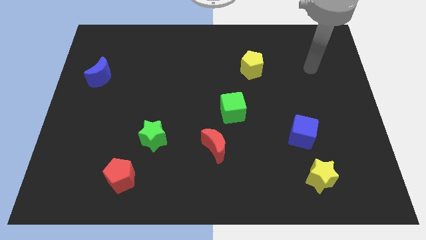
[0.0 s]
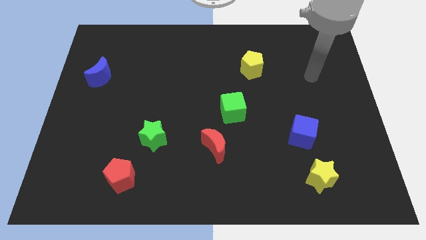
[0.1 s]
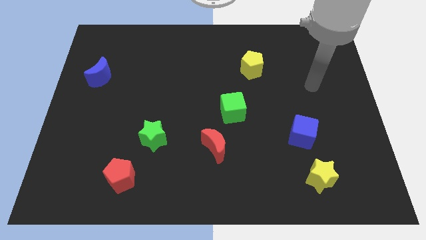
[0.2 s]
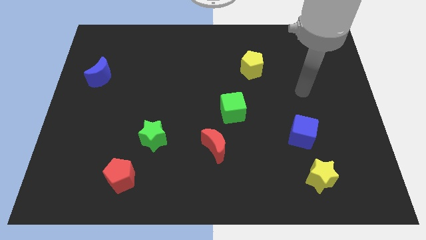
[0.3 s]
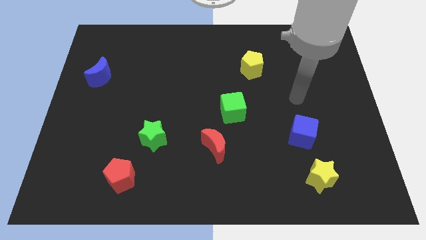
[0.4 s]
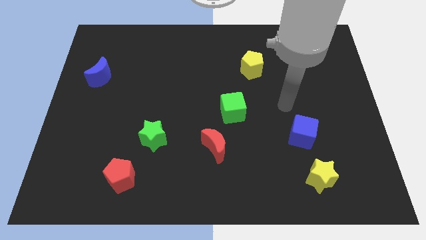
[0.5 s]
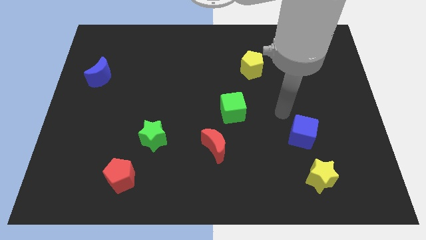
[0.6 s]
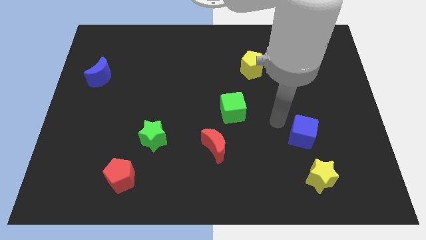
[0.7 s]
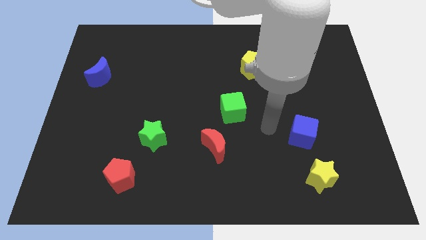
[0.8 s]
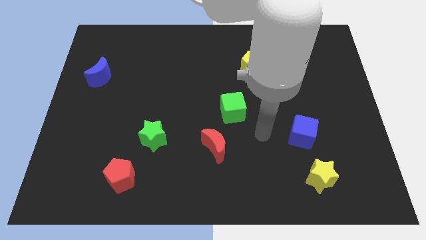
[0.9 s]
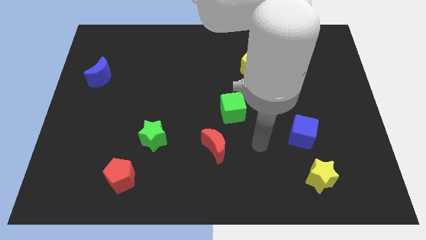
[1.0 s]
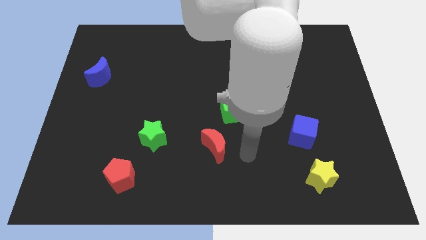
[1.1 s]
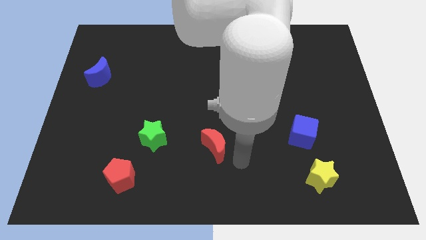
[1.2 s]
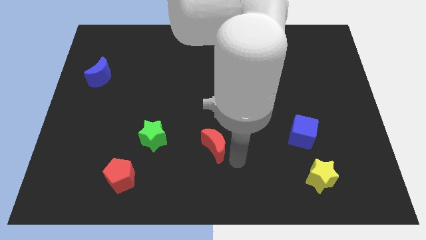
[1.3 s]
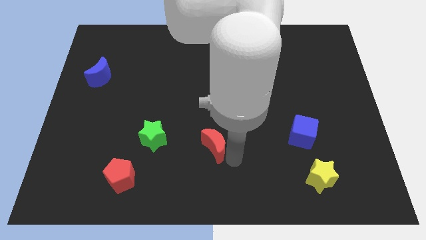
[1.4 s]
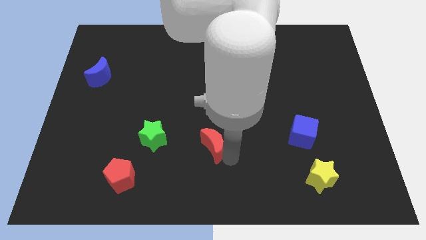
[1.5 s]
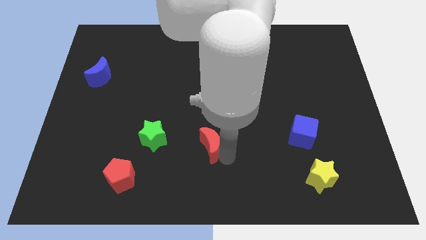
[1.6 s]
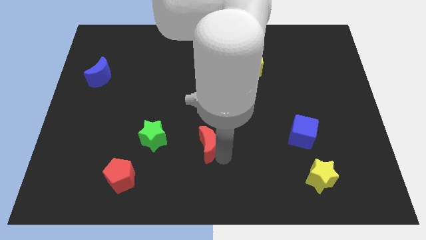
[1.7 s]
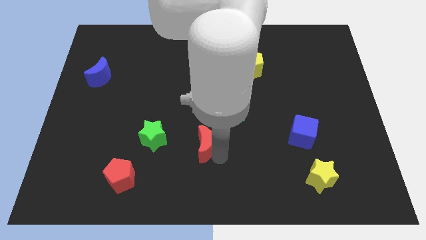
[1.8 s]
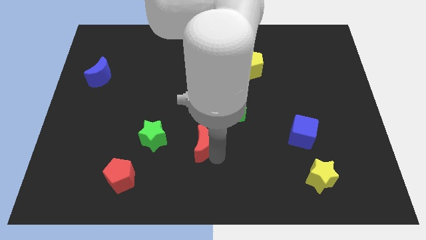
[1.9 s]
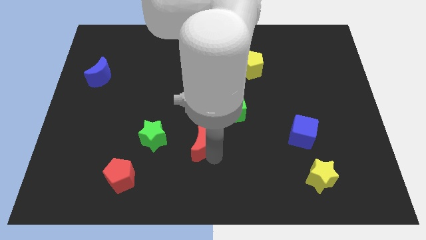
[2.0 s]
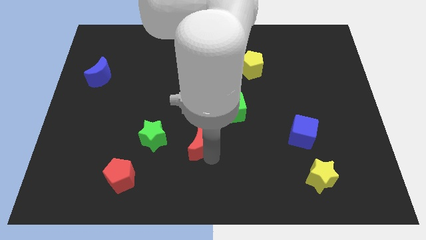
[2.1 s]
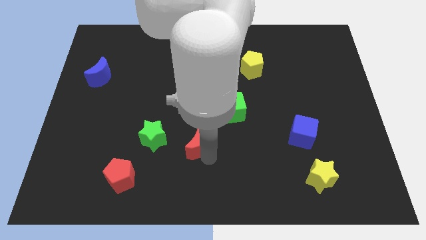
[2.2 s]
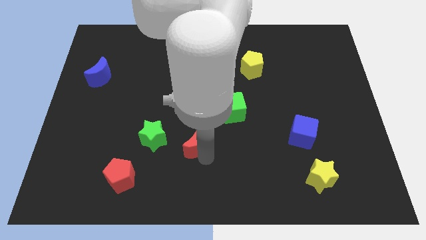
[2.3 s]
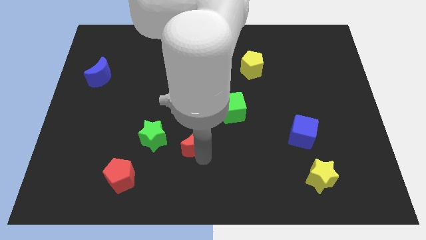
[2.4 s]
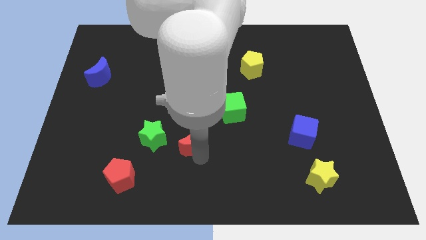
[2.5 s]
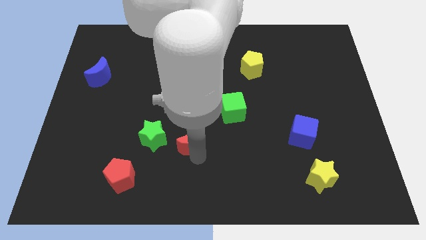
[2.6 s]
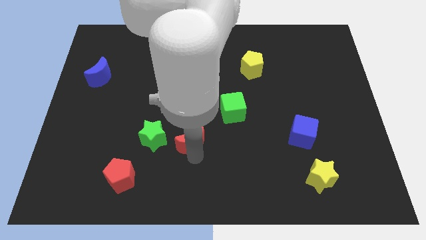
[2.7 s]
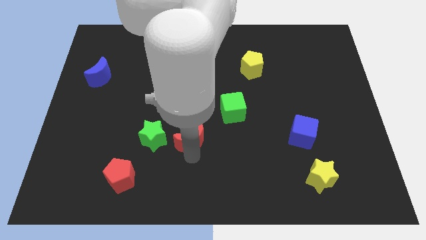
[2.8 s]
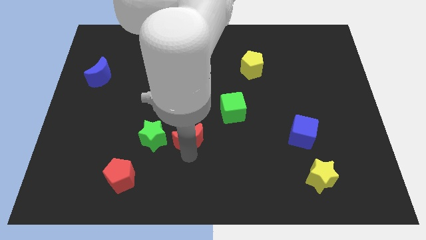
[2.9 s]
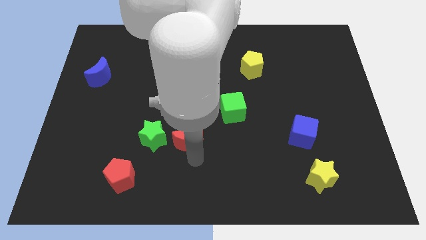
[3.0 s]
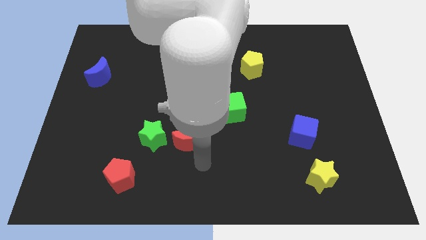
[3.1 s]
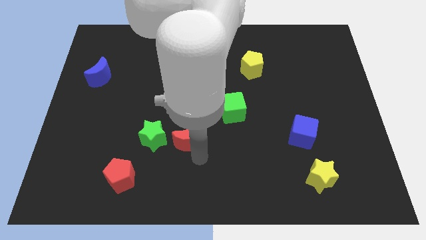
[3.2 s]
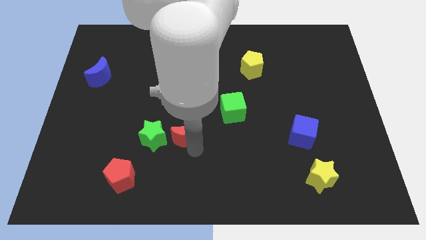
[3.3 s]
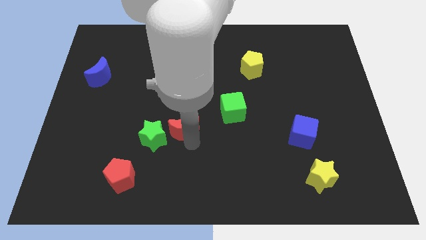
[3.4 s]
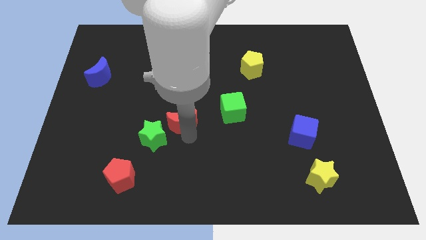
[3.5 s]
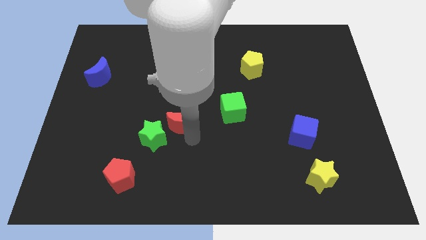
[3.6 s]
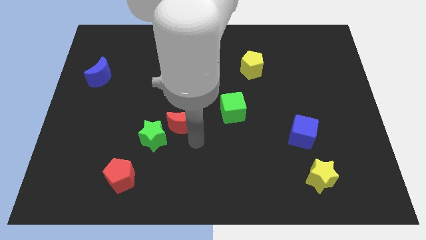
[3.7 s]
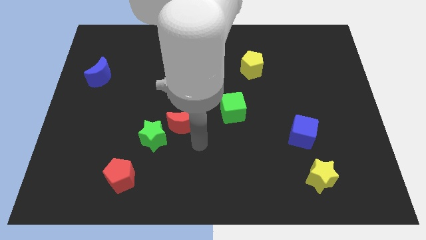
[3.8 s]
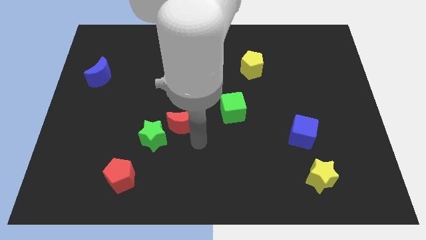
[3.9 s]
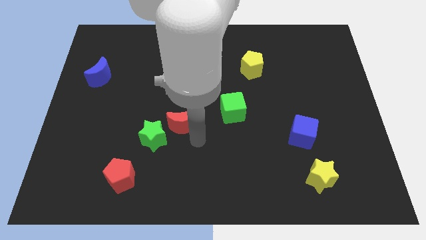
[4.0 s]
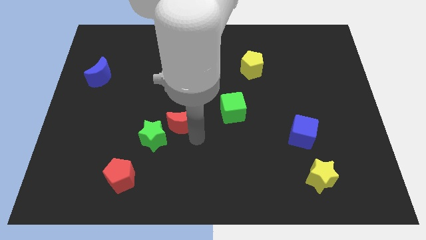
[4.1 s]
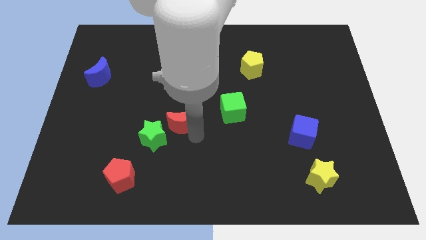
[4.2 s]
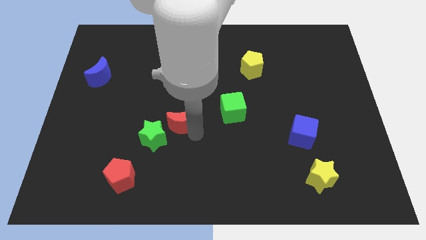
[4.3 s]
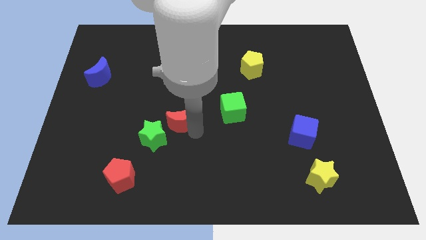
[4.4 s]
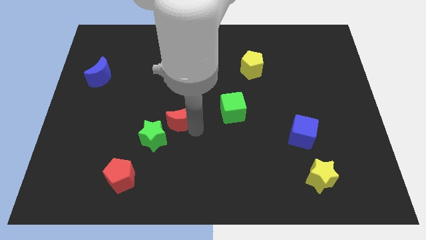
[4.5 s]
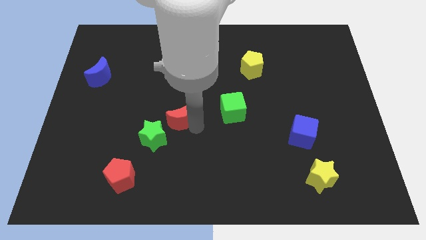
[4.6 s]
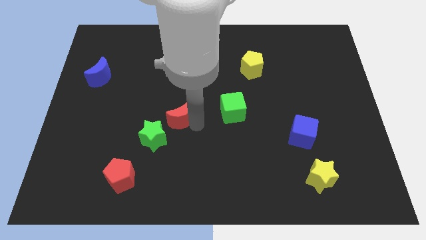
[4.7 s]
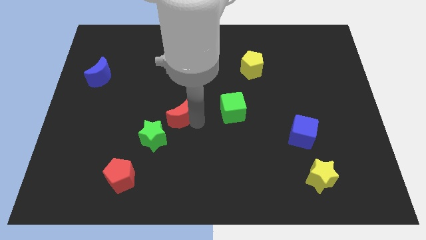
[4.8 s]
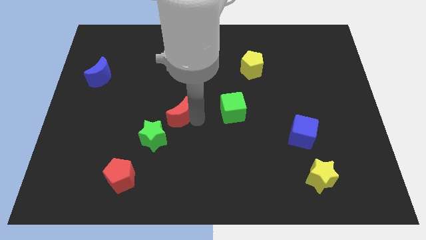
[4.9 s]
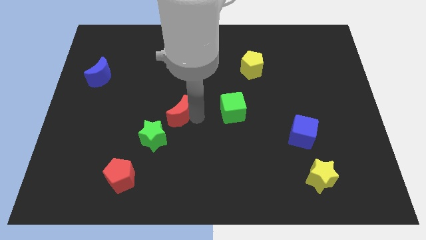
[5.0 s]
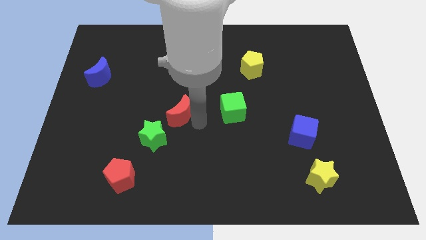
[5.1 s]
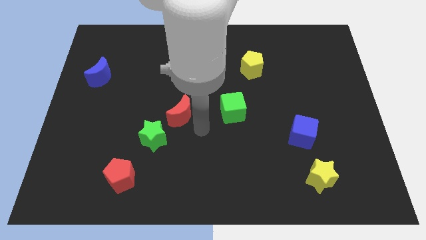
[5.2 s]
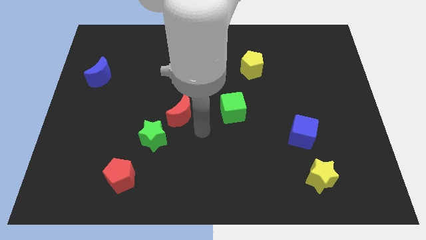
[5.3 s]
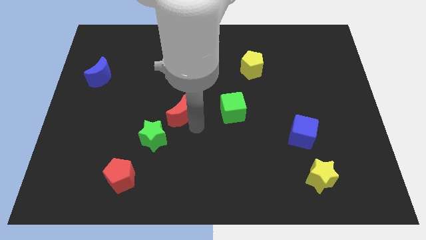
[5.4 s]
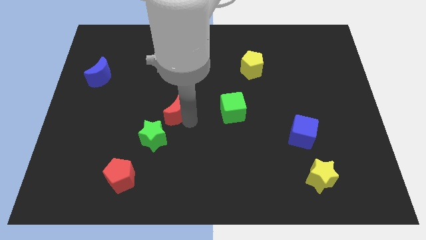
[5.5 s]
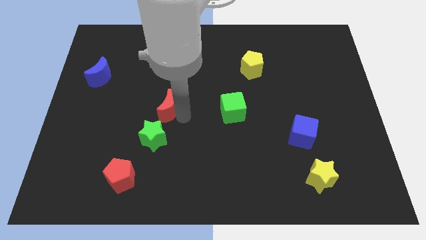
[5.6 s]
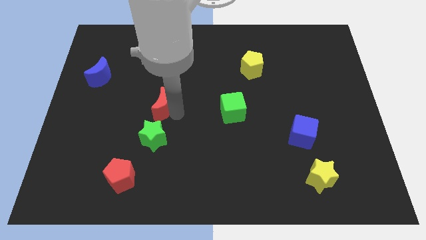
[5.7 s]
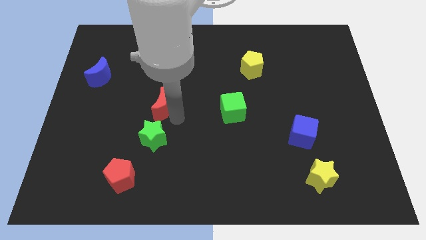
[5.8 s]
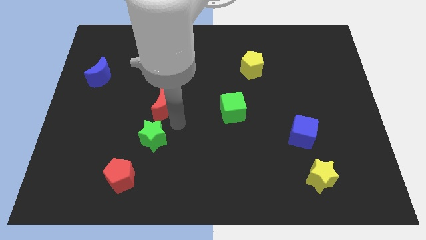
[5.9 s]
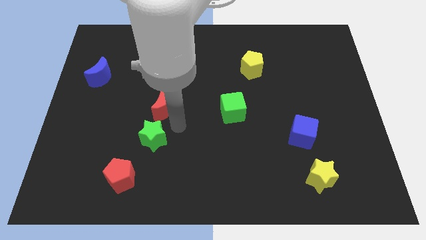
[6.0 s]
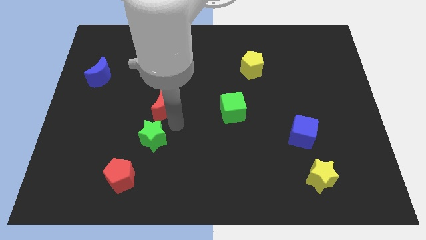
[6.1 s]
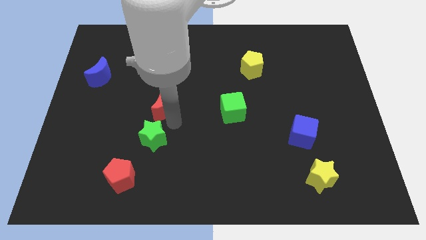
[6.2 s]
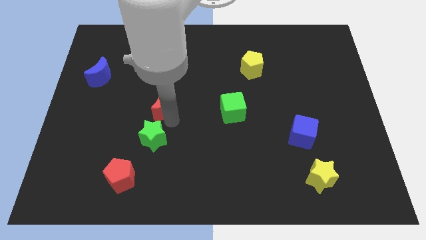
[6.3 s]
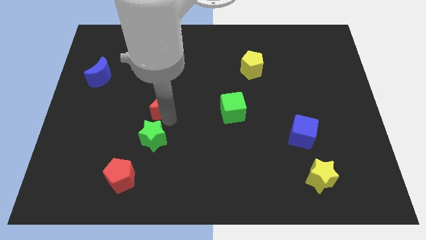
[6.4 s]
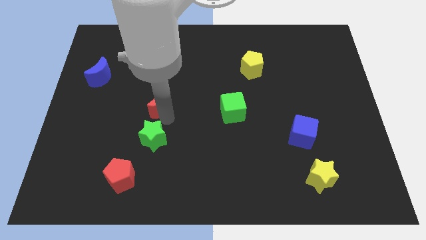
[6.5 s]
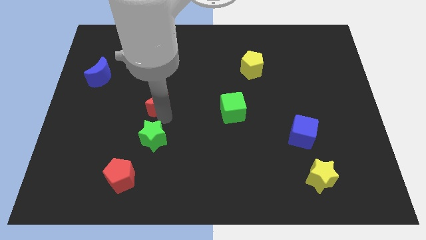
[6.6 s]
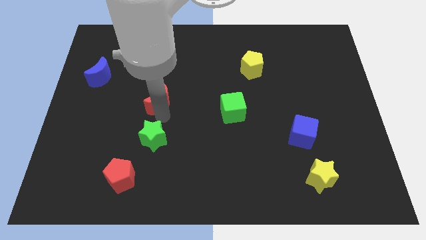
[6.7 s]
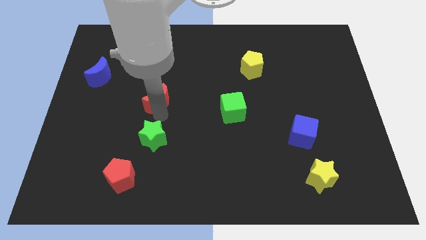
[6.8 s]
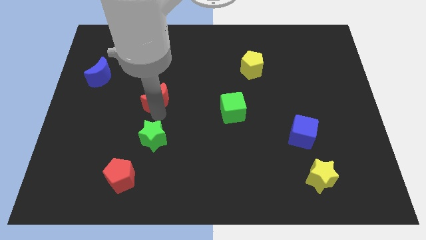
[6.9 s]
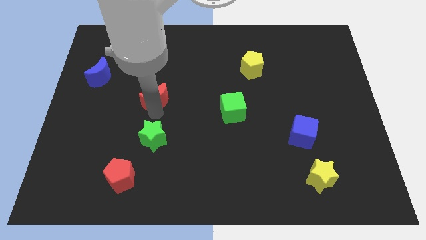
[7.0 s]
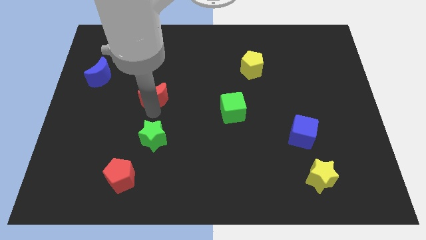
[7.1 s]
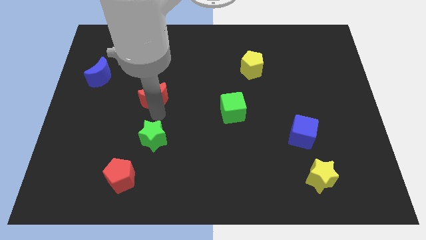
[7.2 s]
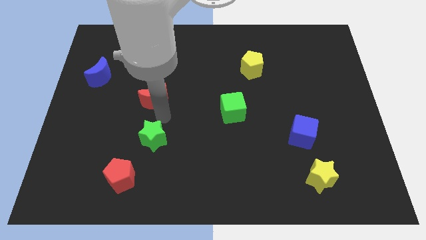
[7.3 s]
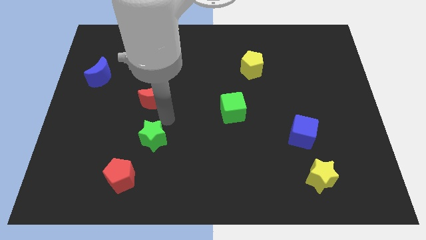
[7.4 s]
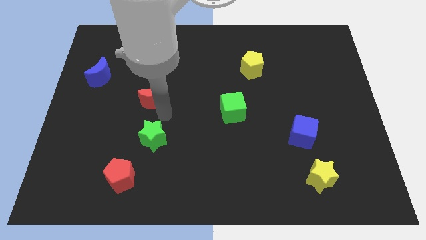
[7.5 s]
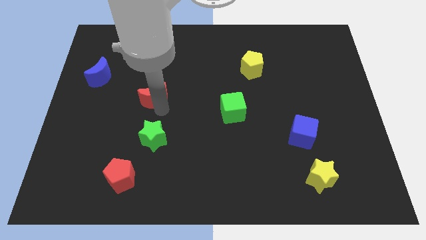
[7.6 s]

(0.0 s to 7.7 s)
push the red moon up and to the left

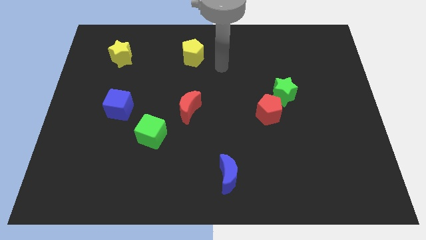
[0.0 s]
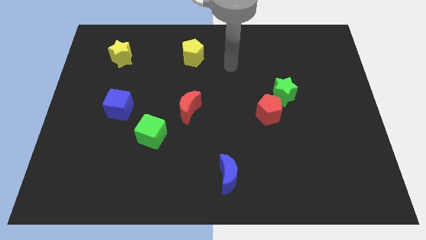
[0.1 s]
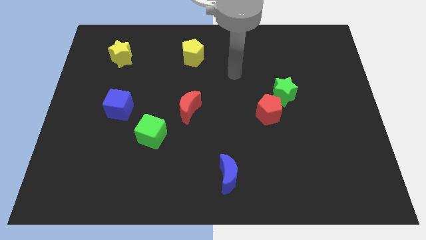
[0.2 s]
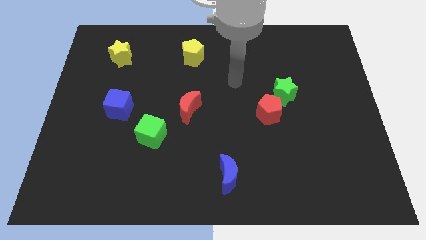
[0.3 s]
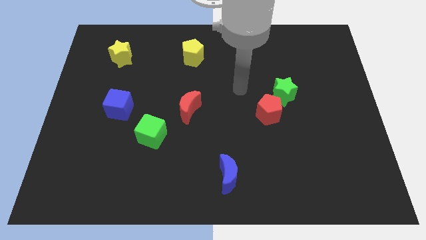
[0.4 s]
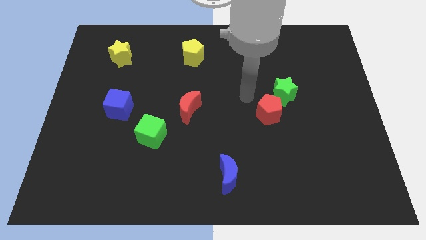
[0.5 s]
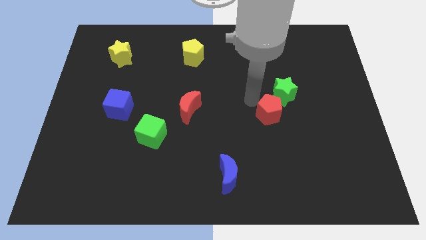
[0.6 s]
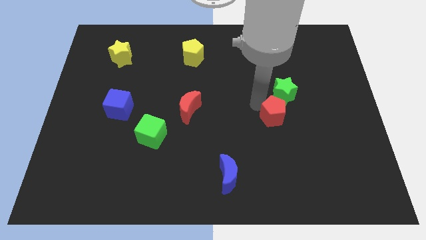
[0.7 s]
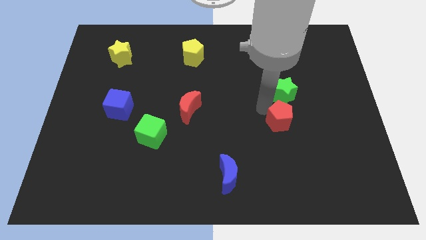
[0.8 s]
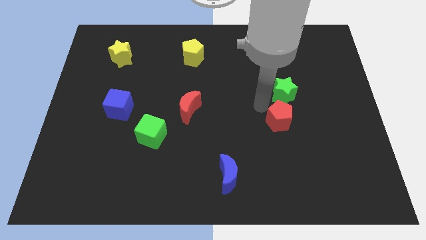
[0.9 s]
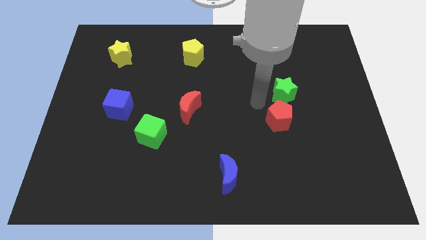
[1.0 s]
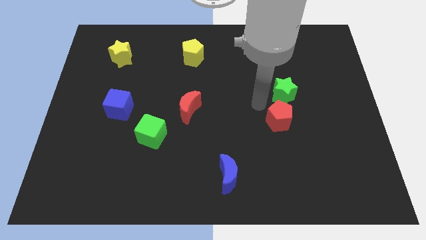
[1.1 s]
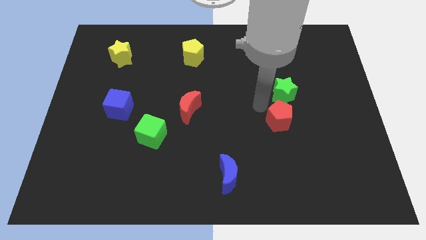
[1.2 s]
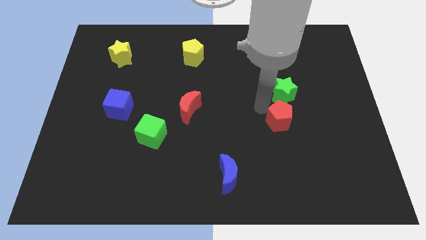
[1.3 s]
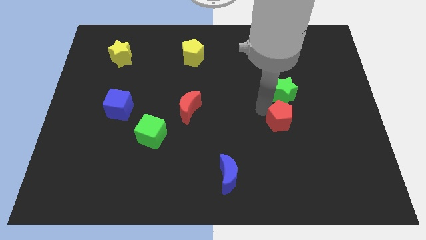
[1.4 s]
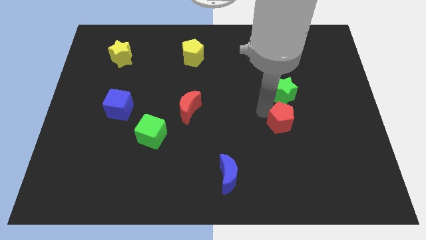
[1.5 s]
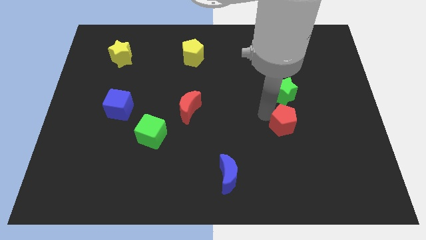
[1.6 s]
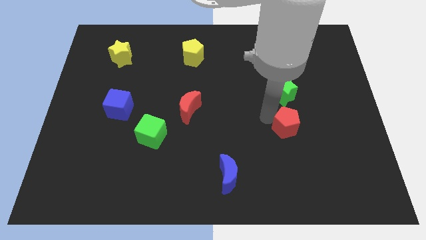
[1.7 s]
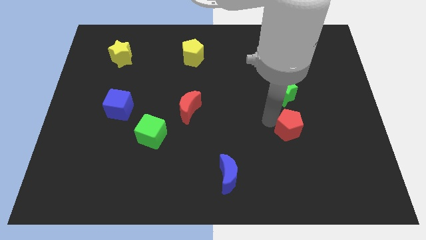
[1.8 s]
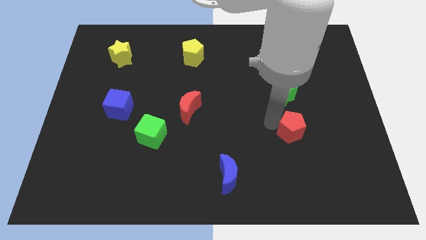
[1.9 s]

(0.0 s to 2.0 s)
push the red pentagon somewhat downwards and to the right
